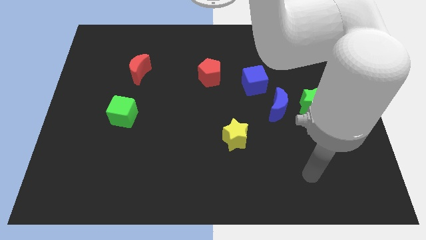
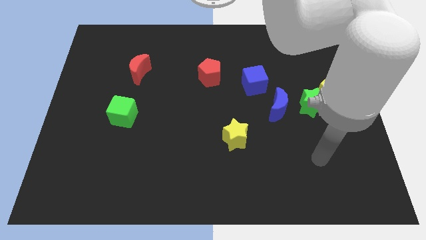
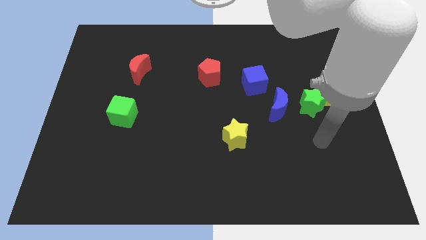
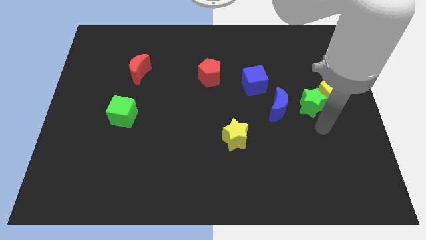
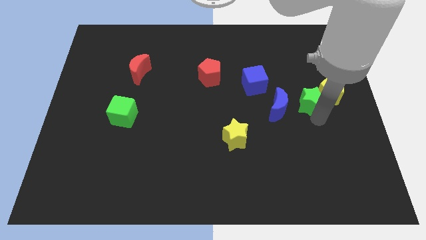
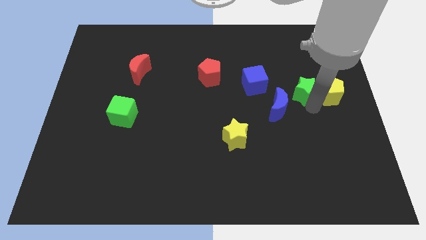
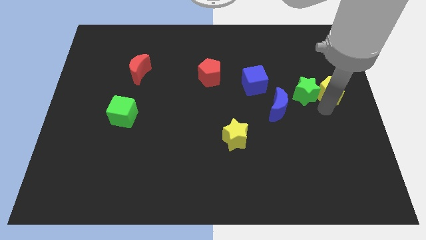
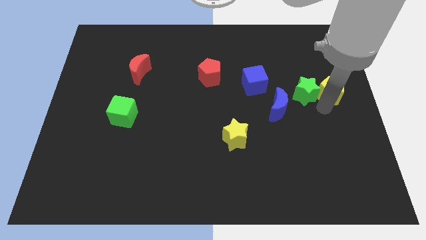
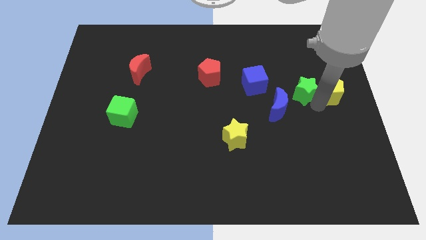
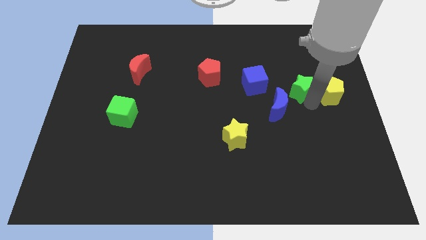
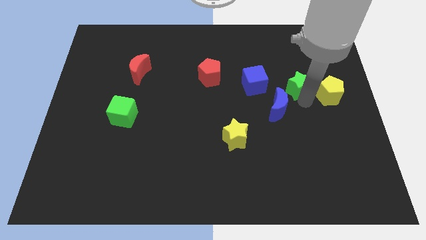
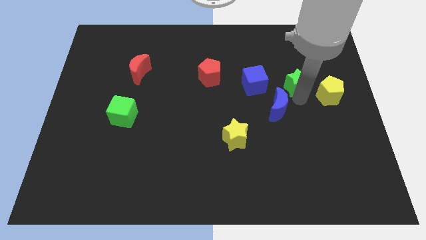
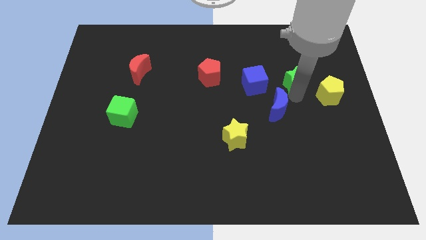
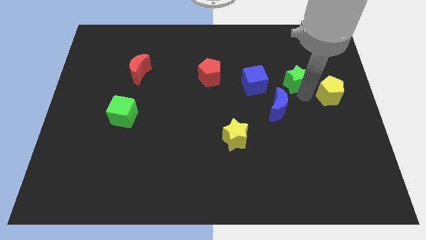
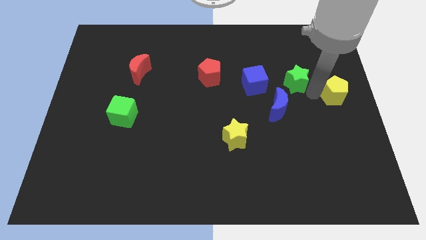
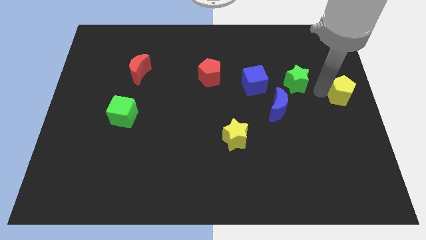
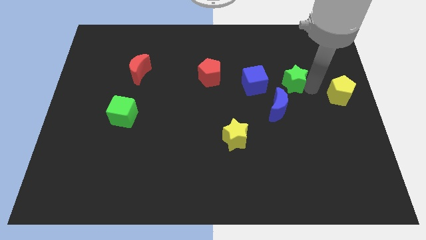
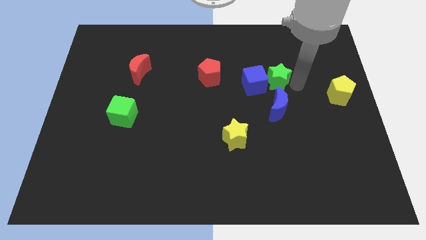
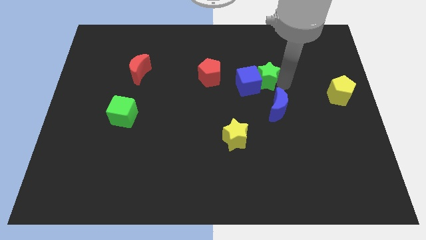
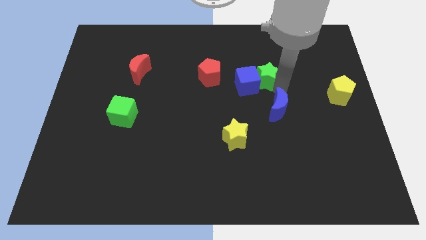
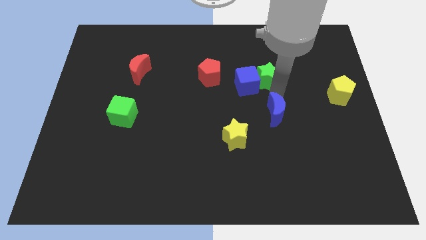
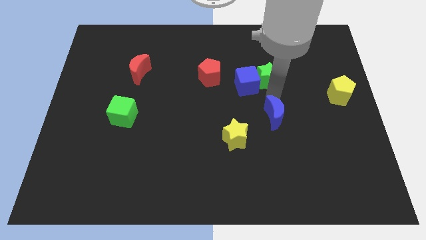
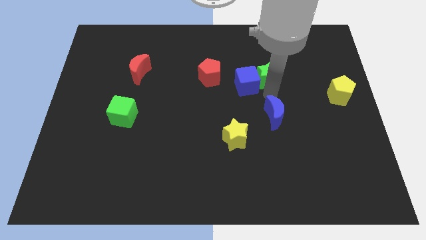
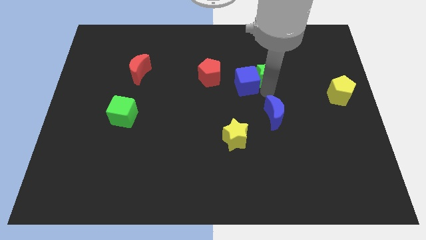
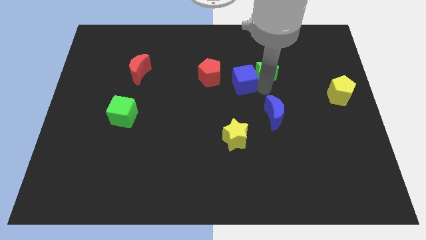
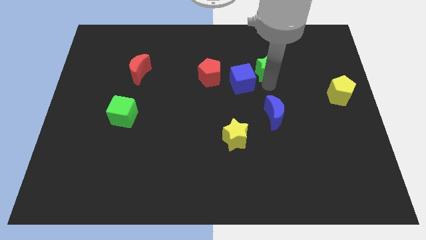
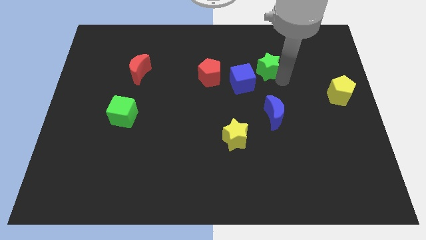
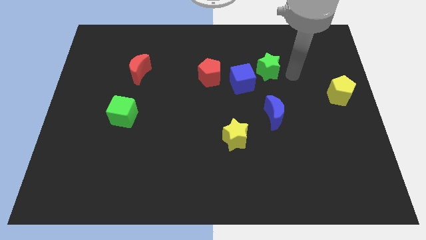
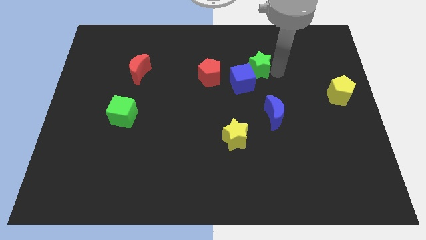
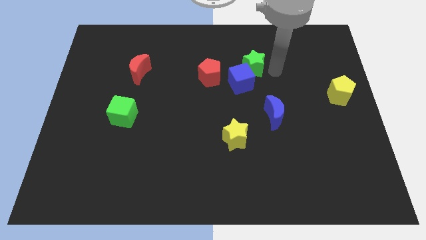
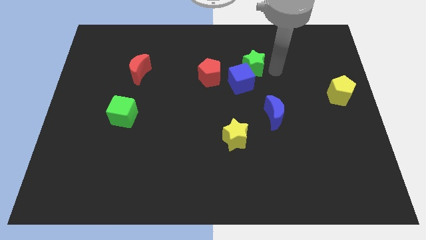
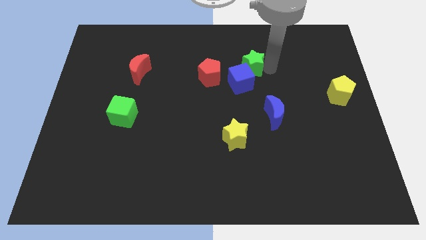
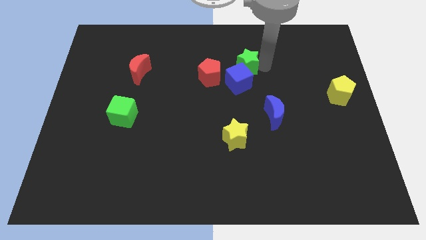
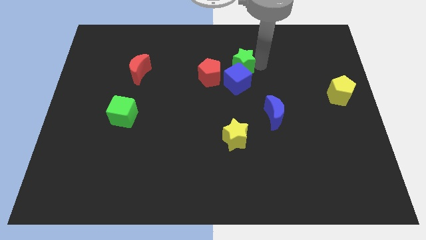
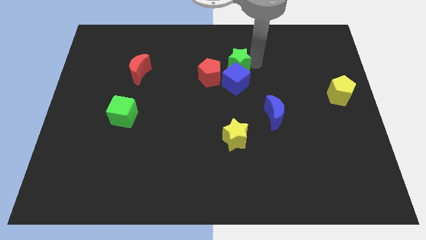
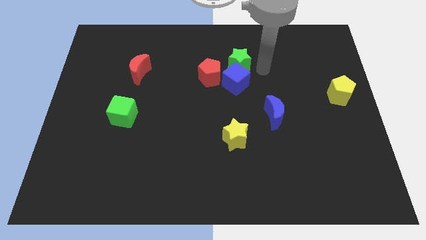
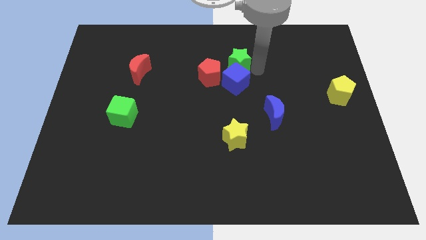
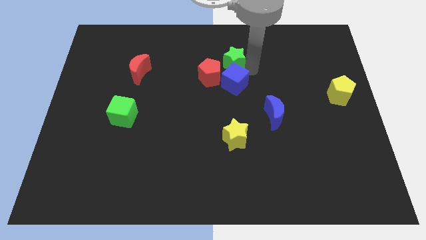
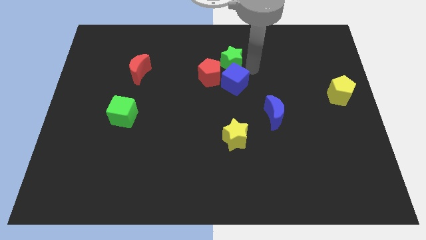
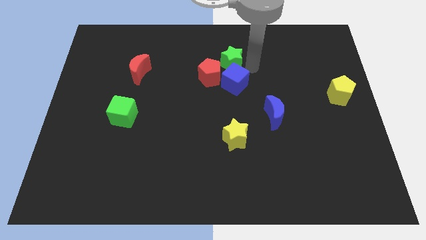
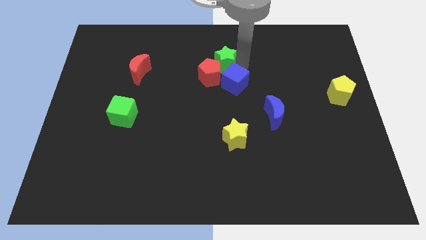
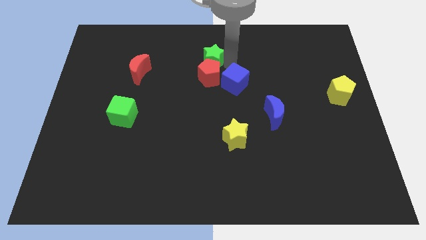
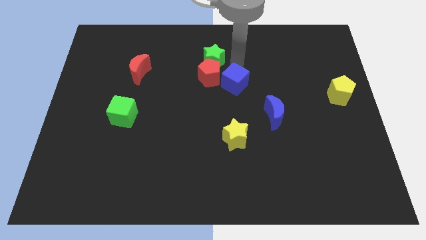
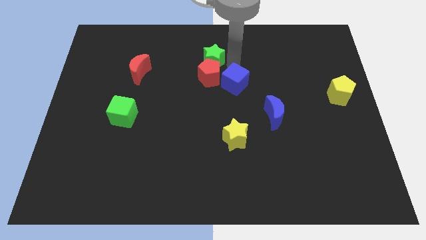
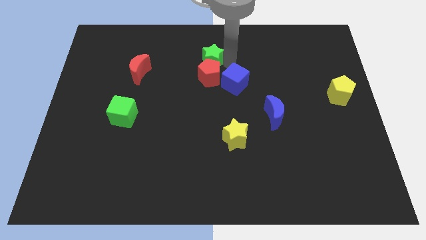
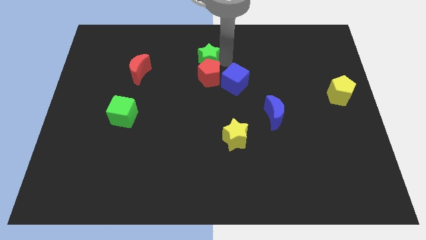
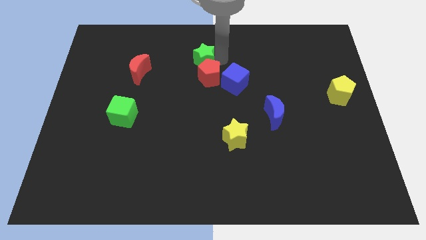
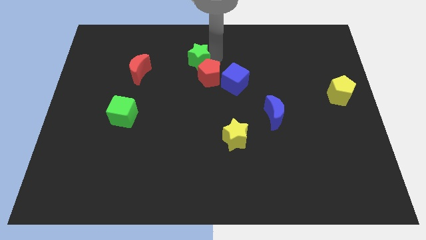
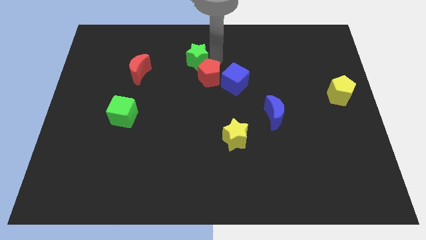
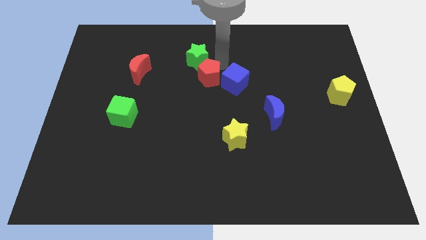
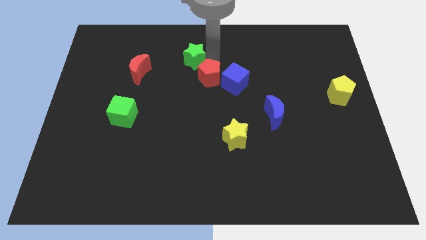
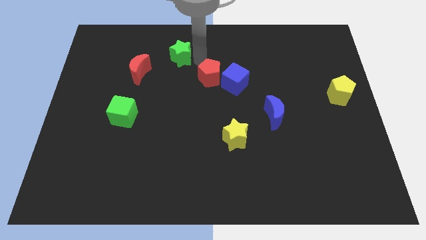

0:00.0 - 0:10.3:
slide the green star to the top right side of the red moon
